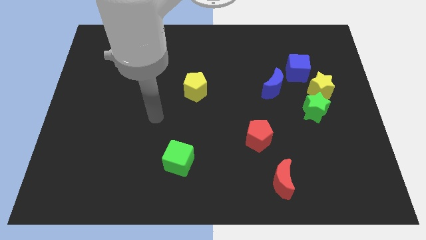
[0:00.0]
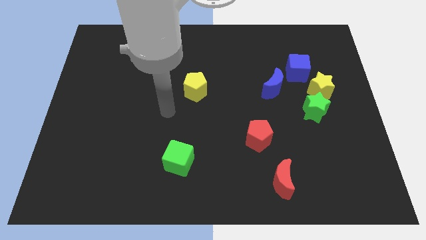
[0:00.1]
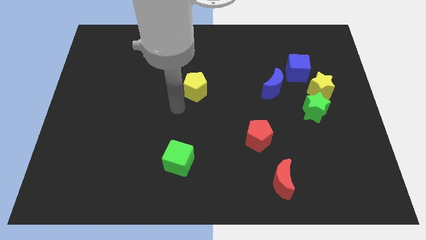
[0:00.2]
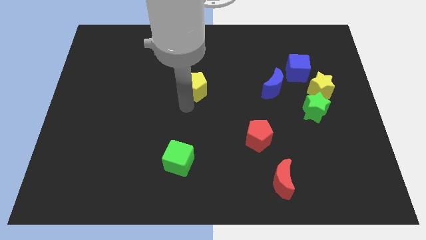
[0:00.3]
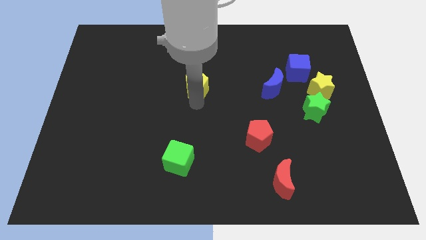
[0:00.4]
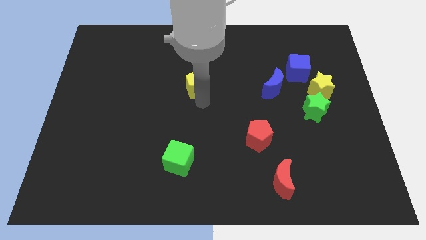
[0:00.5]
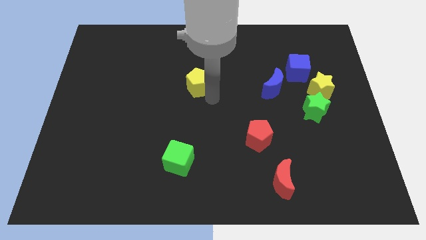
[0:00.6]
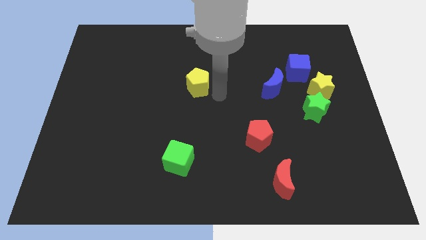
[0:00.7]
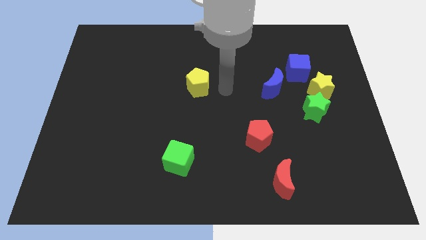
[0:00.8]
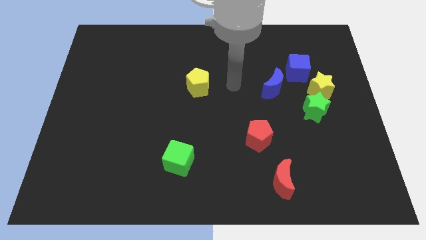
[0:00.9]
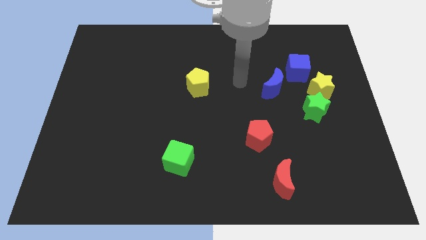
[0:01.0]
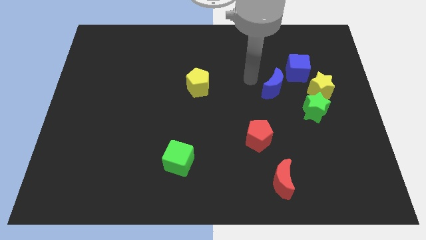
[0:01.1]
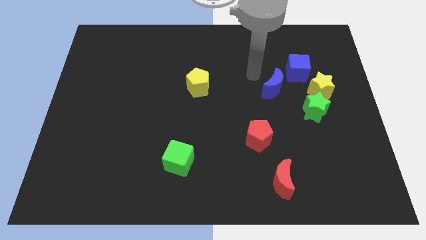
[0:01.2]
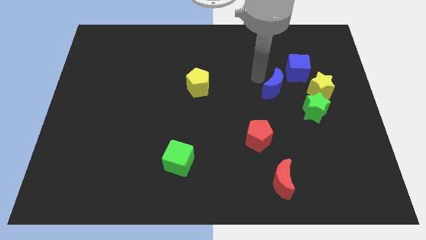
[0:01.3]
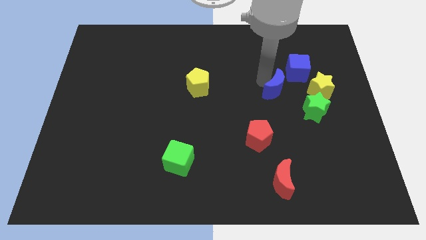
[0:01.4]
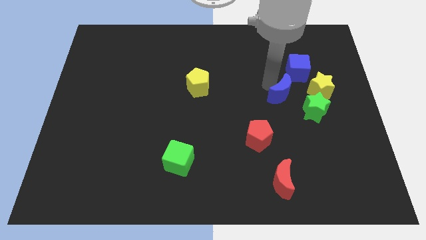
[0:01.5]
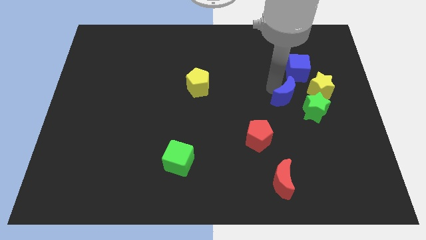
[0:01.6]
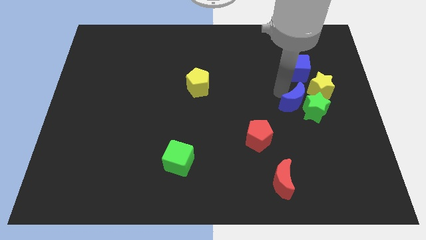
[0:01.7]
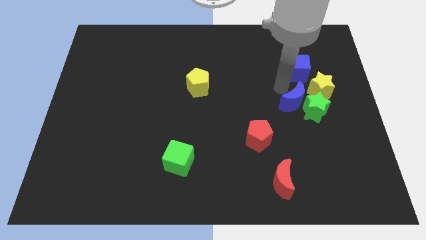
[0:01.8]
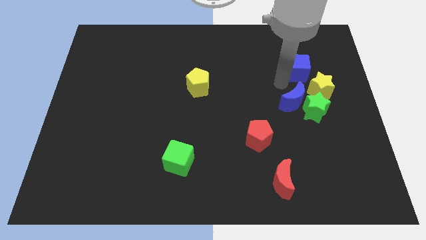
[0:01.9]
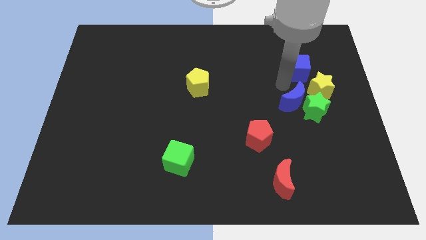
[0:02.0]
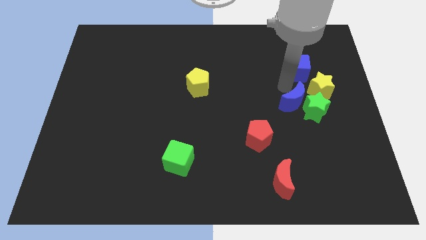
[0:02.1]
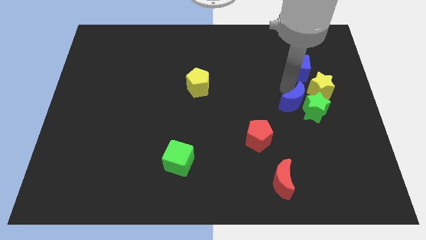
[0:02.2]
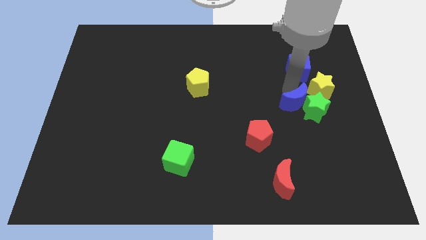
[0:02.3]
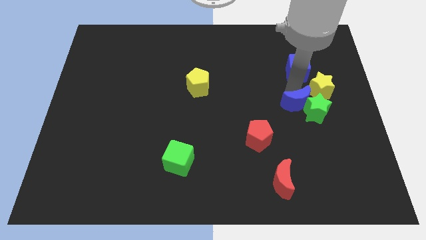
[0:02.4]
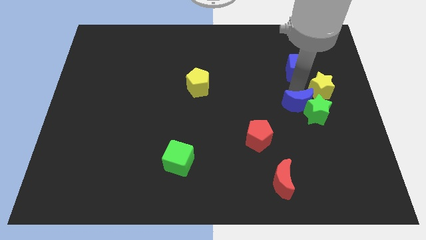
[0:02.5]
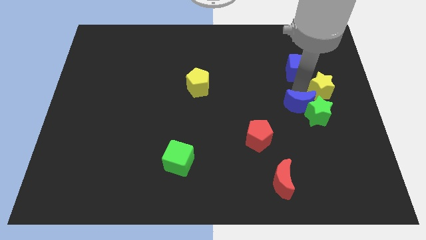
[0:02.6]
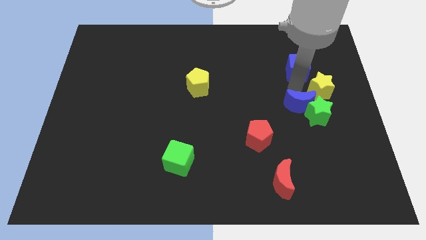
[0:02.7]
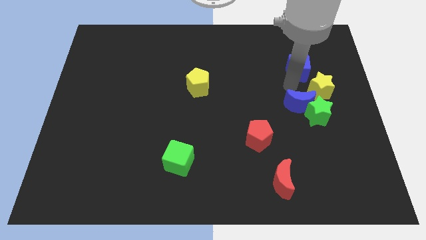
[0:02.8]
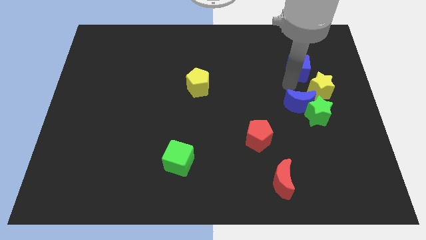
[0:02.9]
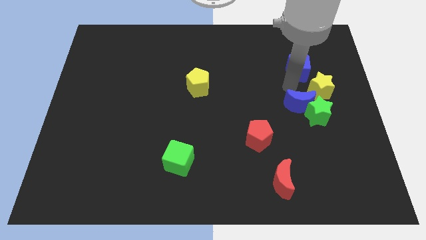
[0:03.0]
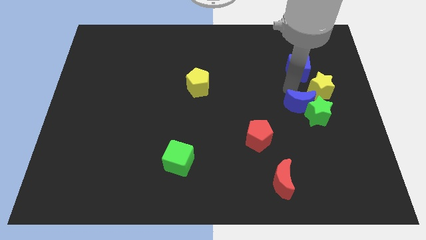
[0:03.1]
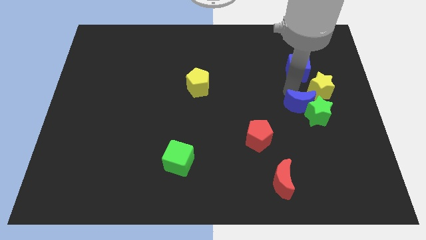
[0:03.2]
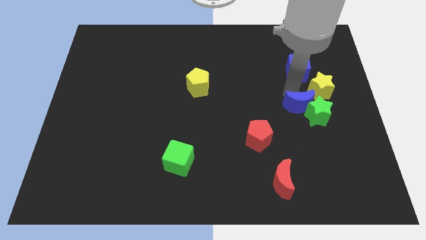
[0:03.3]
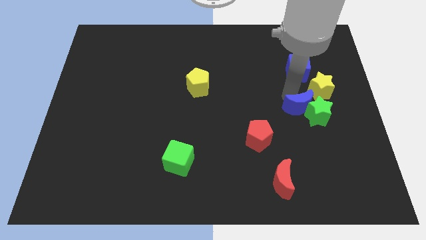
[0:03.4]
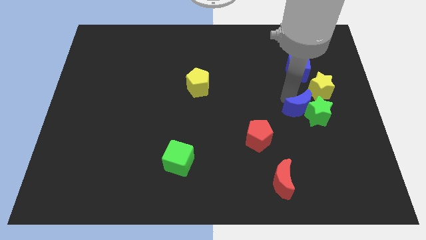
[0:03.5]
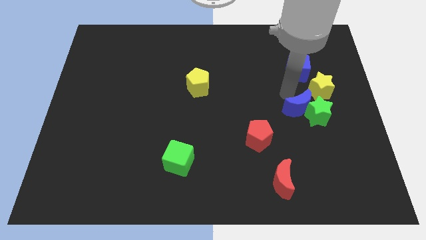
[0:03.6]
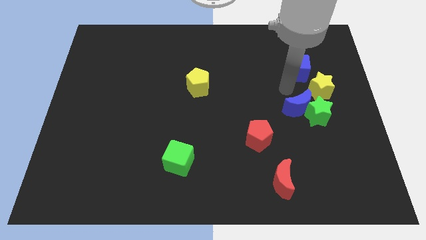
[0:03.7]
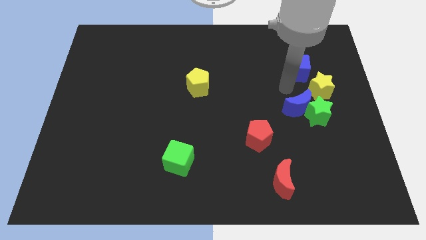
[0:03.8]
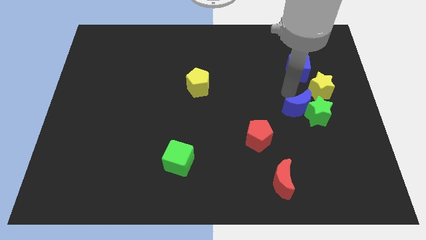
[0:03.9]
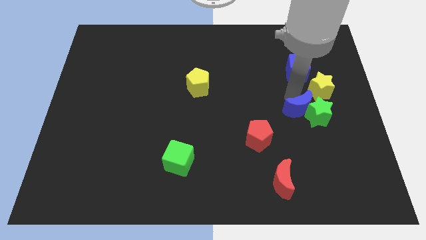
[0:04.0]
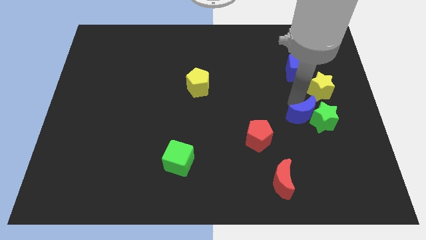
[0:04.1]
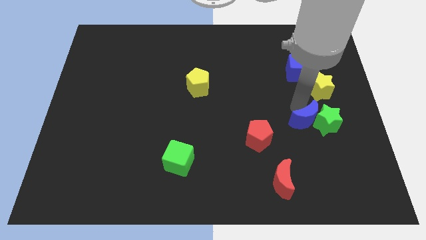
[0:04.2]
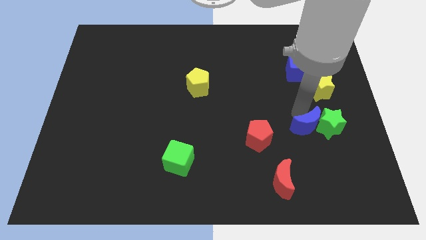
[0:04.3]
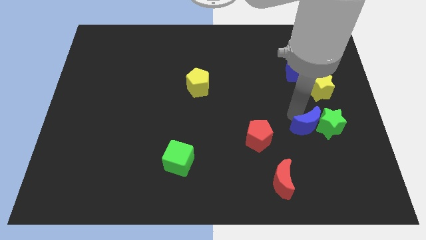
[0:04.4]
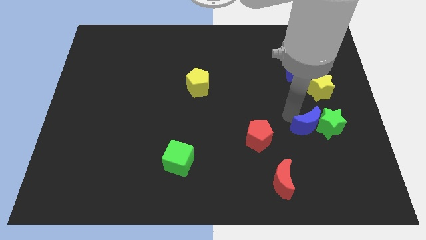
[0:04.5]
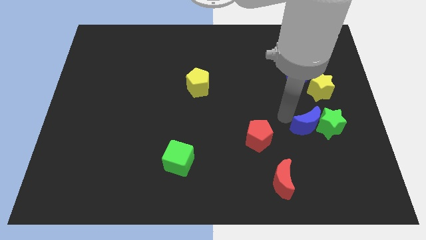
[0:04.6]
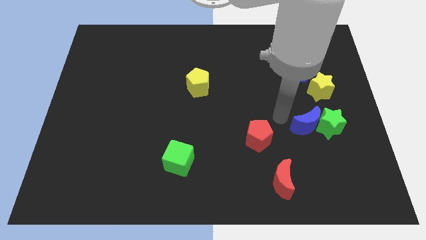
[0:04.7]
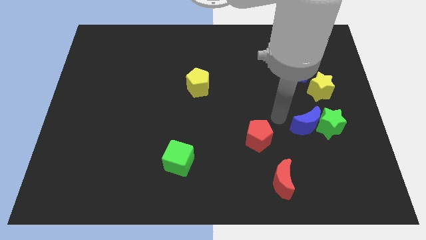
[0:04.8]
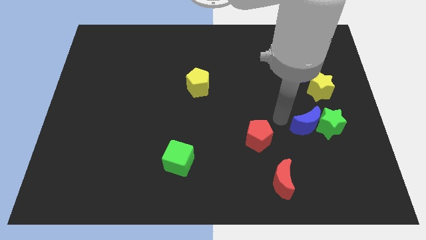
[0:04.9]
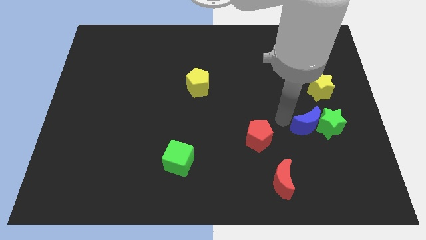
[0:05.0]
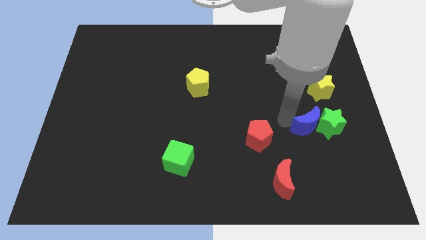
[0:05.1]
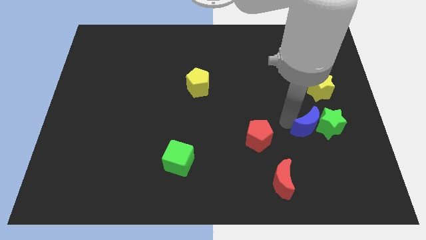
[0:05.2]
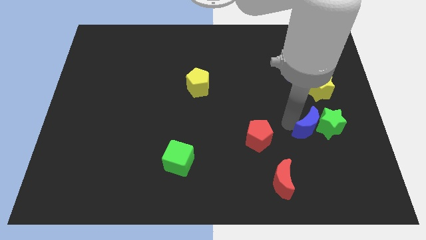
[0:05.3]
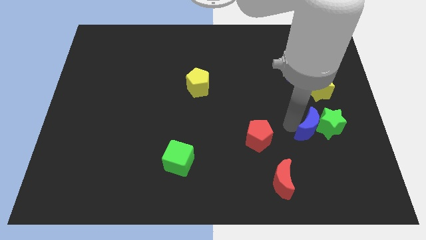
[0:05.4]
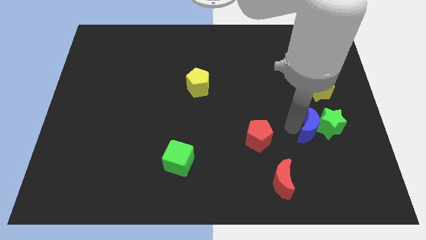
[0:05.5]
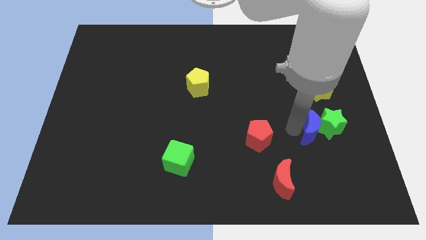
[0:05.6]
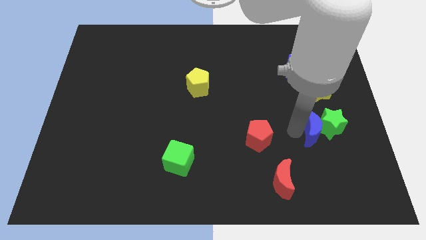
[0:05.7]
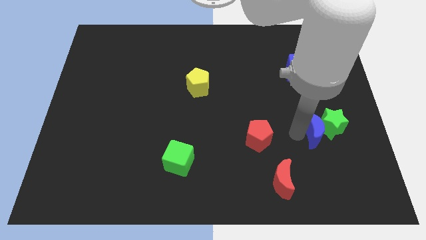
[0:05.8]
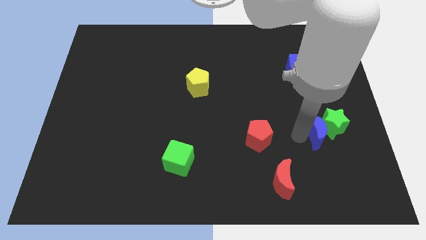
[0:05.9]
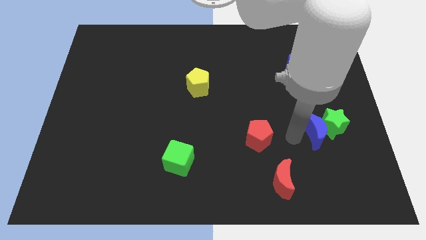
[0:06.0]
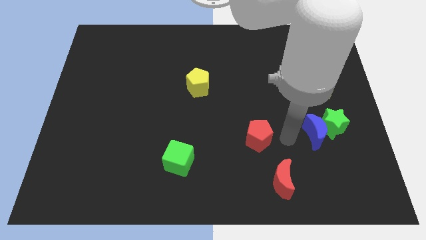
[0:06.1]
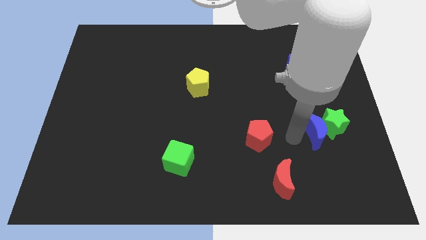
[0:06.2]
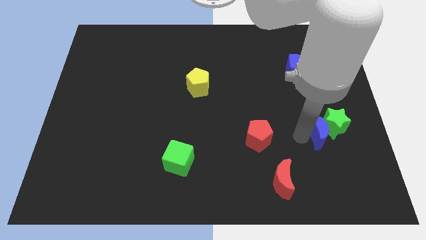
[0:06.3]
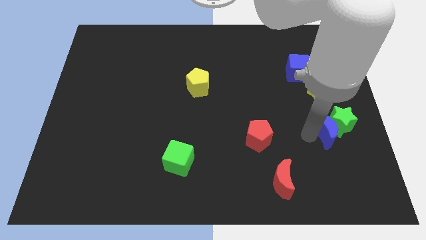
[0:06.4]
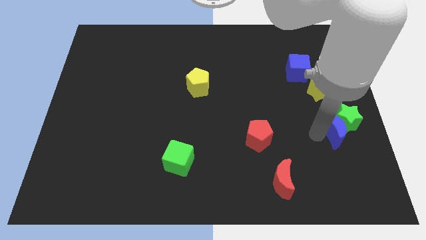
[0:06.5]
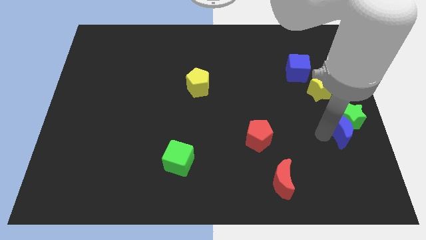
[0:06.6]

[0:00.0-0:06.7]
push the blue moon to the right side
